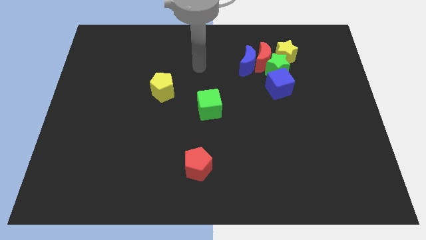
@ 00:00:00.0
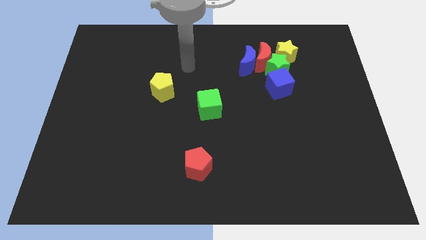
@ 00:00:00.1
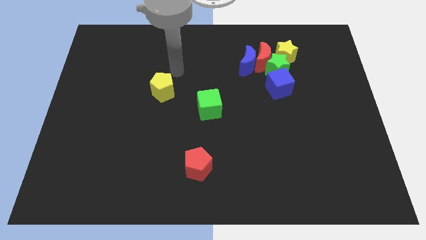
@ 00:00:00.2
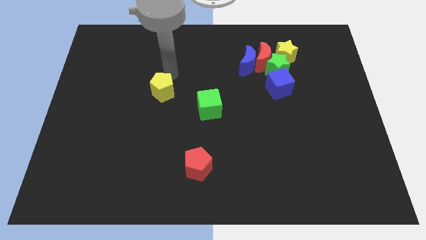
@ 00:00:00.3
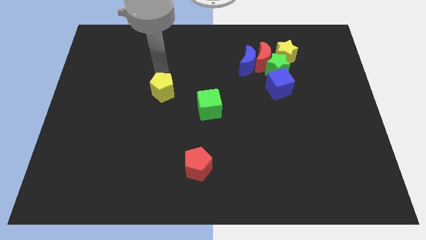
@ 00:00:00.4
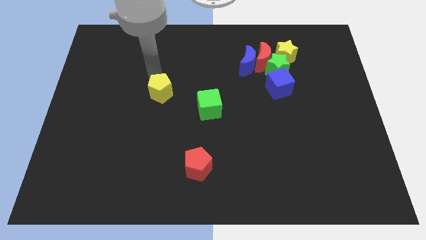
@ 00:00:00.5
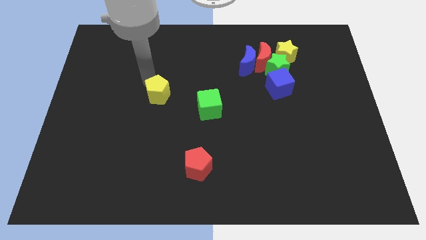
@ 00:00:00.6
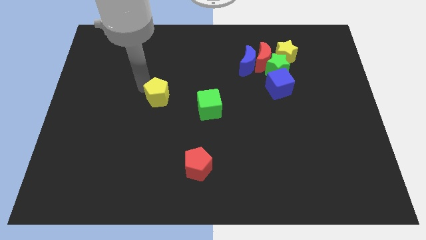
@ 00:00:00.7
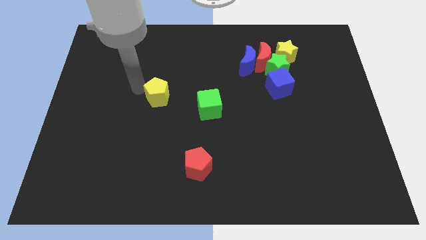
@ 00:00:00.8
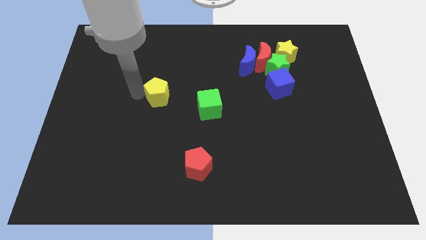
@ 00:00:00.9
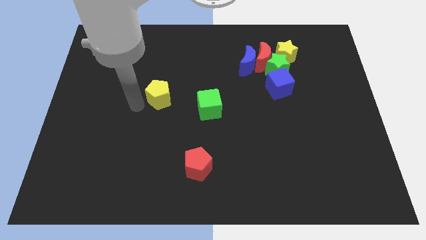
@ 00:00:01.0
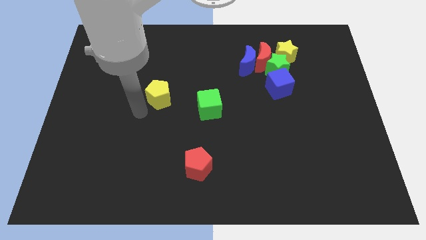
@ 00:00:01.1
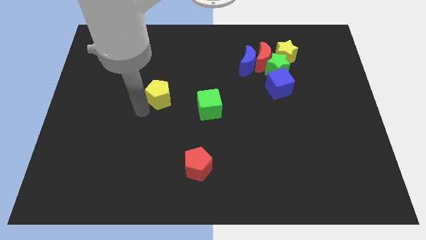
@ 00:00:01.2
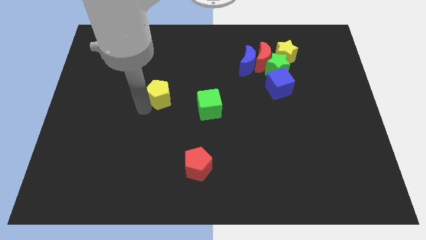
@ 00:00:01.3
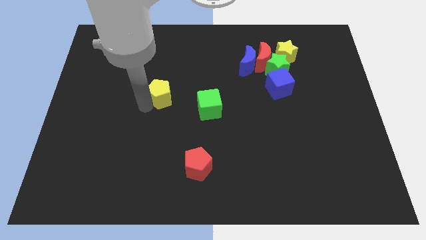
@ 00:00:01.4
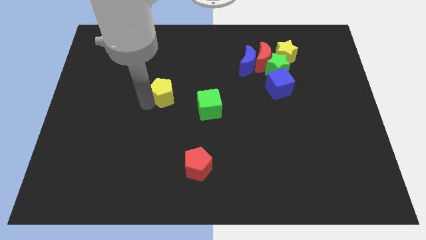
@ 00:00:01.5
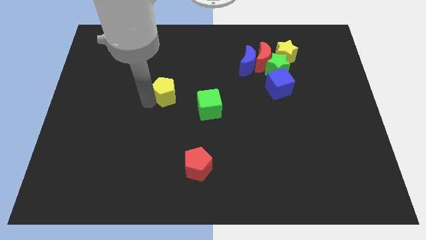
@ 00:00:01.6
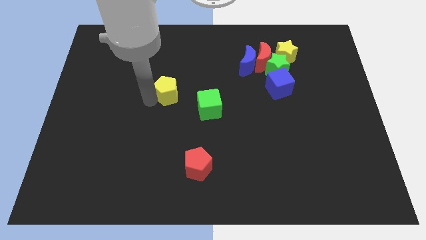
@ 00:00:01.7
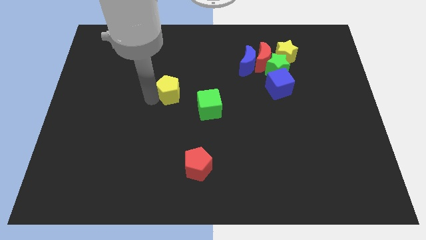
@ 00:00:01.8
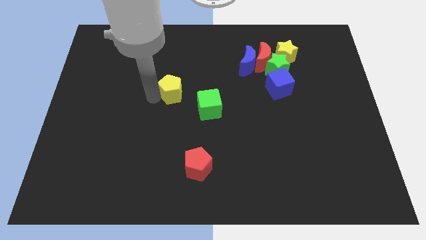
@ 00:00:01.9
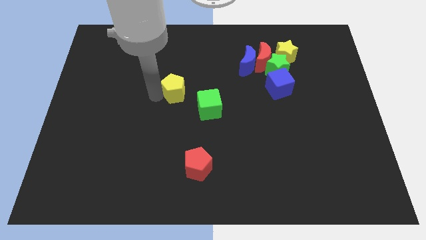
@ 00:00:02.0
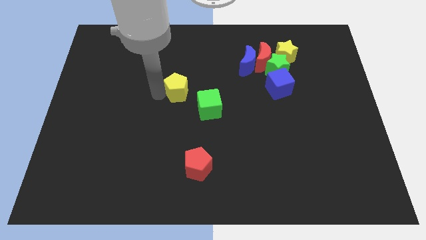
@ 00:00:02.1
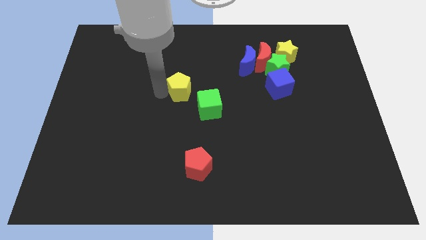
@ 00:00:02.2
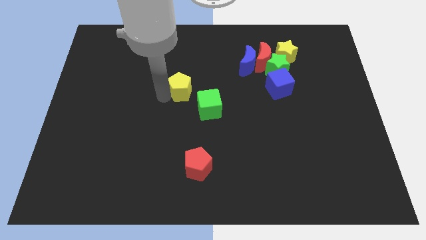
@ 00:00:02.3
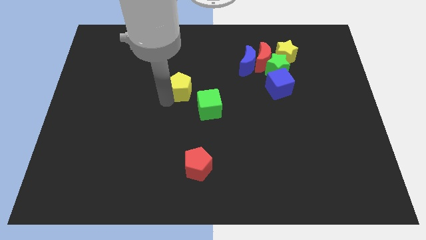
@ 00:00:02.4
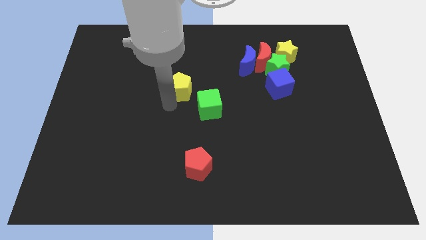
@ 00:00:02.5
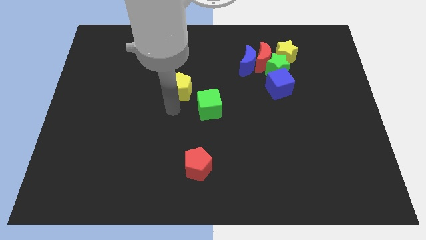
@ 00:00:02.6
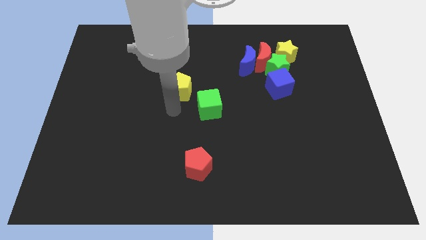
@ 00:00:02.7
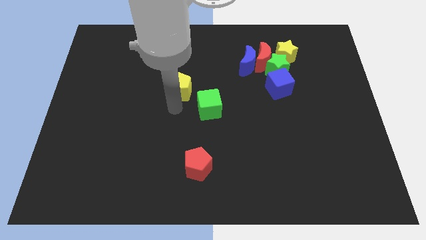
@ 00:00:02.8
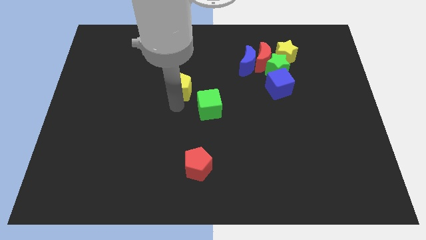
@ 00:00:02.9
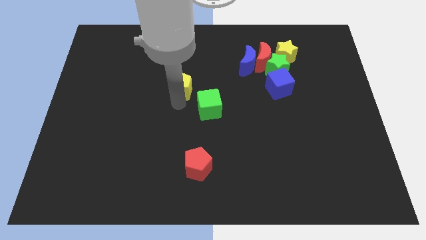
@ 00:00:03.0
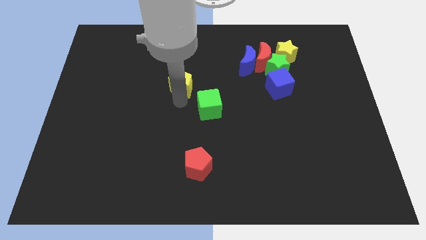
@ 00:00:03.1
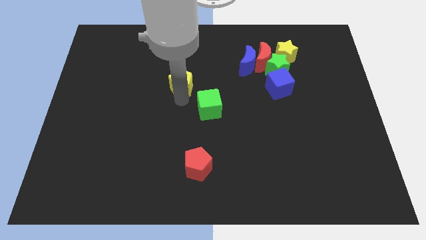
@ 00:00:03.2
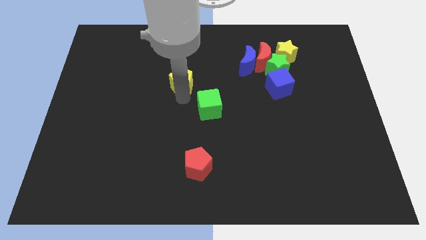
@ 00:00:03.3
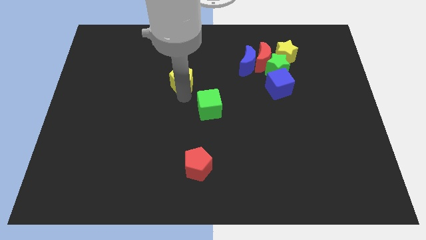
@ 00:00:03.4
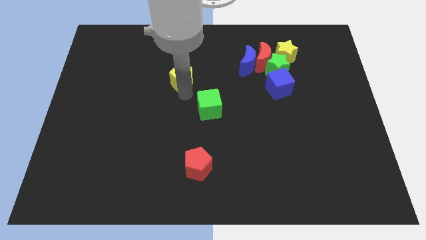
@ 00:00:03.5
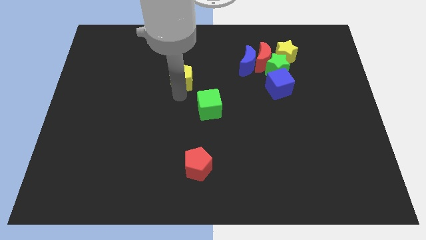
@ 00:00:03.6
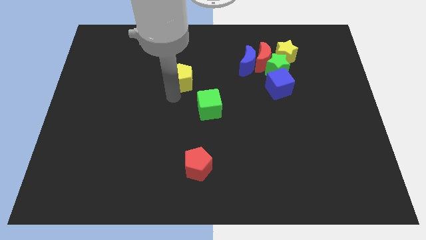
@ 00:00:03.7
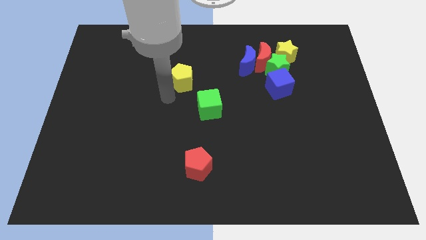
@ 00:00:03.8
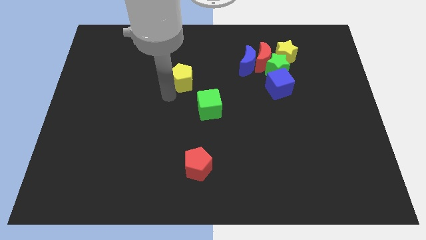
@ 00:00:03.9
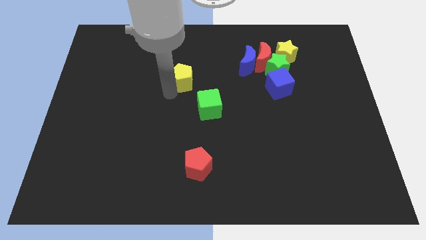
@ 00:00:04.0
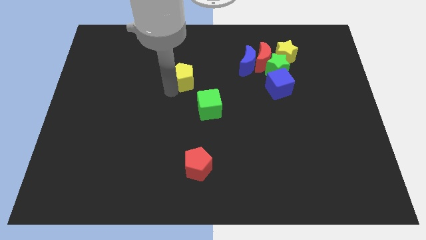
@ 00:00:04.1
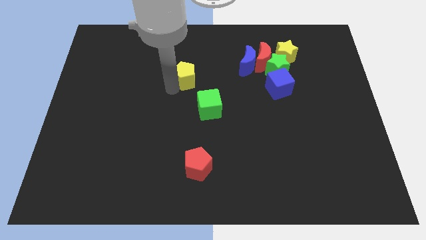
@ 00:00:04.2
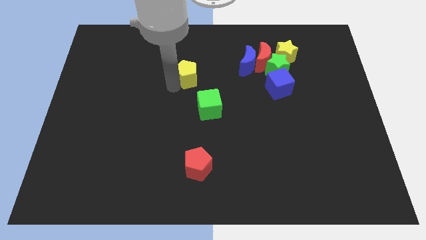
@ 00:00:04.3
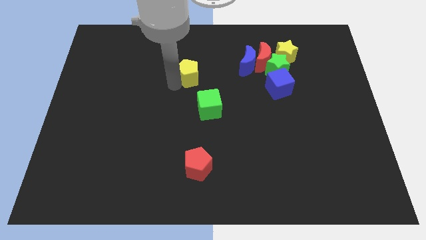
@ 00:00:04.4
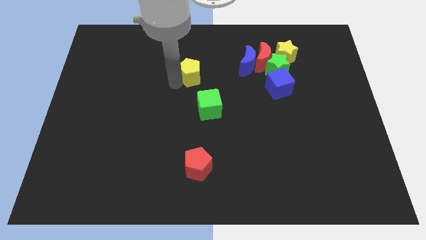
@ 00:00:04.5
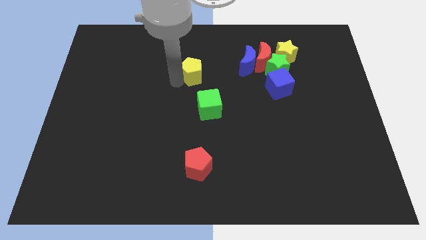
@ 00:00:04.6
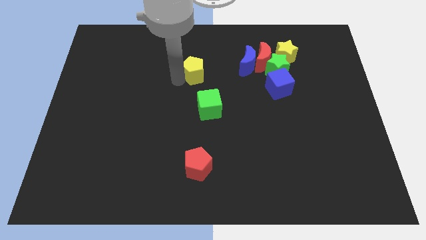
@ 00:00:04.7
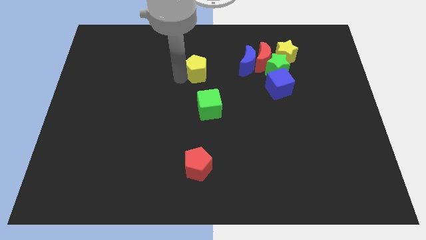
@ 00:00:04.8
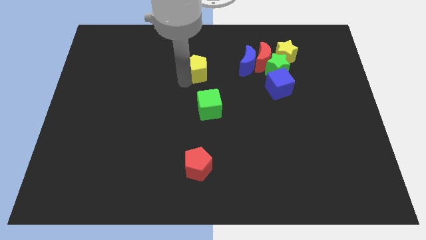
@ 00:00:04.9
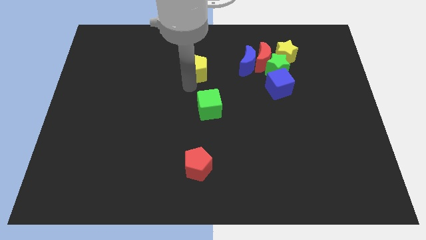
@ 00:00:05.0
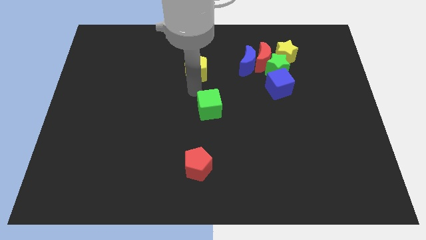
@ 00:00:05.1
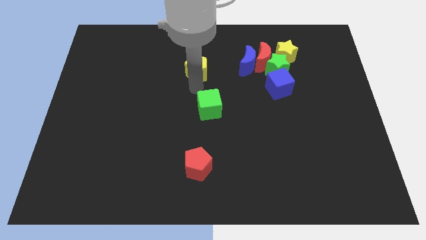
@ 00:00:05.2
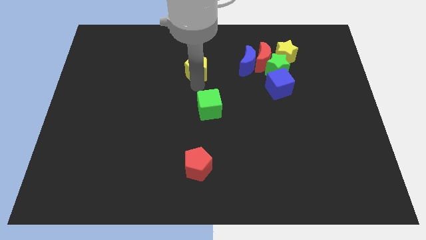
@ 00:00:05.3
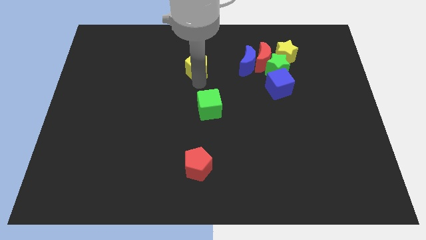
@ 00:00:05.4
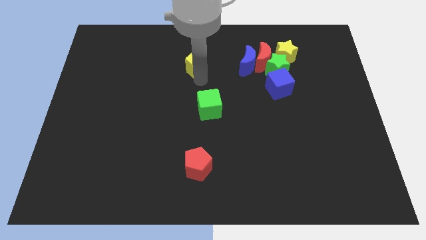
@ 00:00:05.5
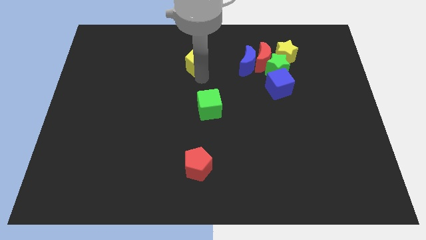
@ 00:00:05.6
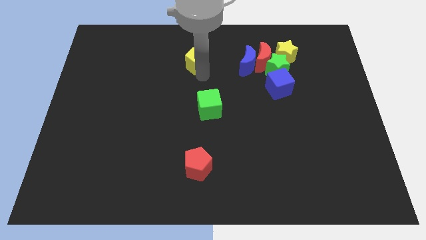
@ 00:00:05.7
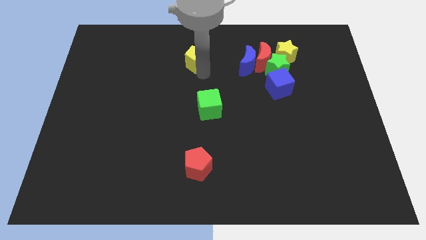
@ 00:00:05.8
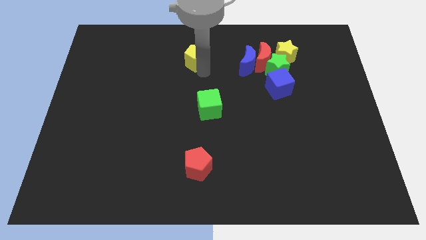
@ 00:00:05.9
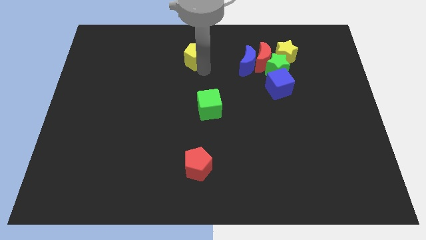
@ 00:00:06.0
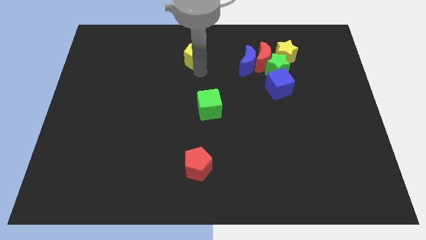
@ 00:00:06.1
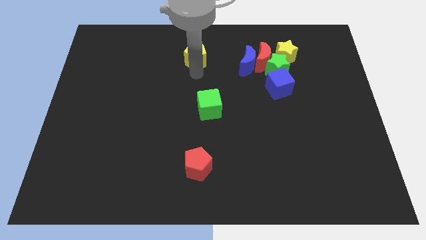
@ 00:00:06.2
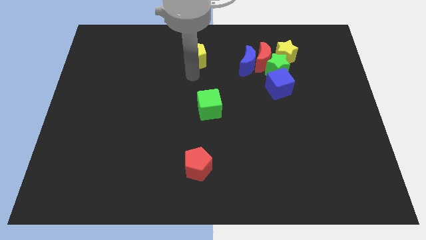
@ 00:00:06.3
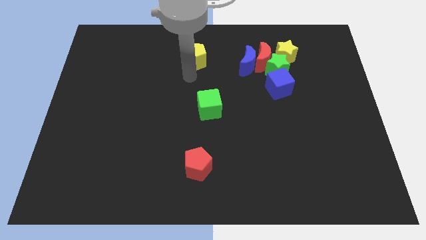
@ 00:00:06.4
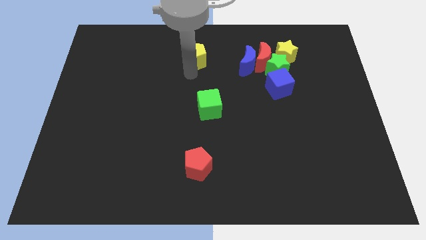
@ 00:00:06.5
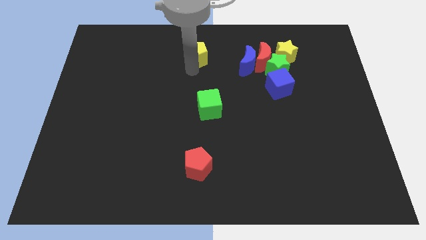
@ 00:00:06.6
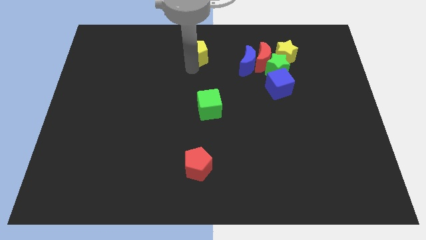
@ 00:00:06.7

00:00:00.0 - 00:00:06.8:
slide the yellow pentagon to the towards your base

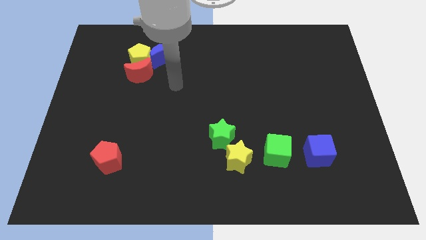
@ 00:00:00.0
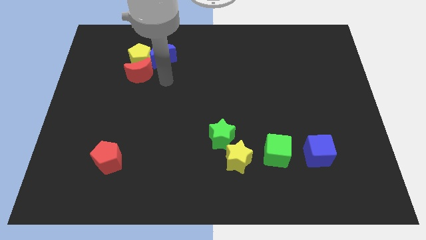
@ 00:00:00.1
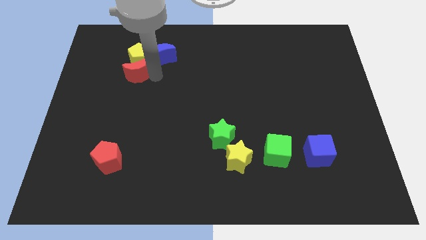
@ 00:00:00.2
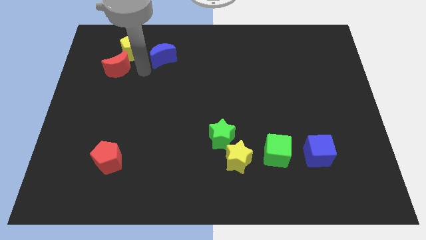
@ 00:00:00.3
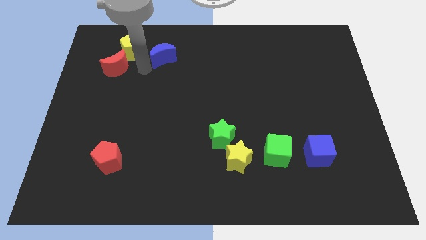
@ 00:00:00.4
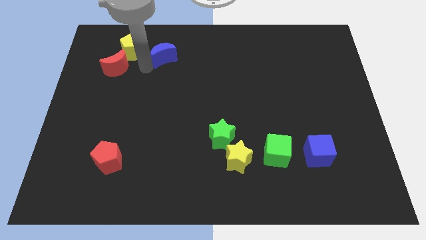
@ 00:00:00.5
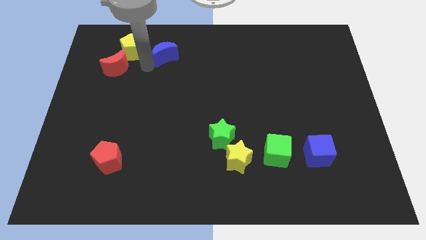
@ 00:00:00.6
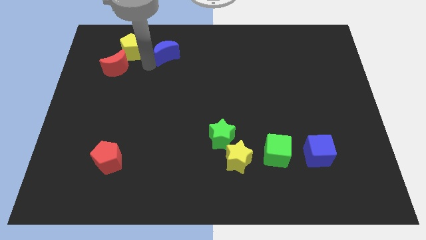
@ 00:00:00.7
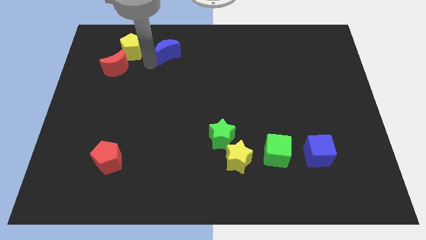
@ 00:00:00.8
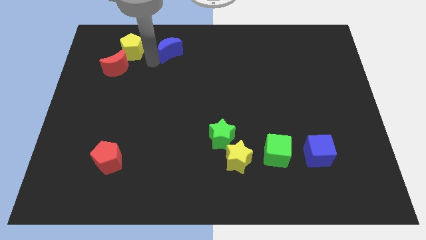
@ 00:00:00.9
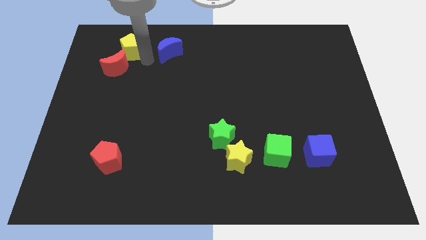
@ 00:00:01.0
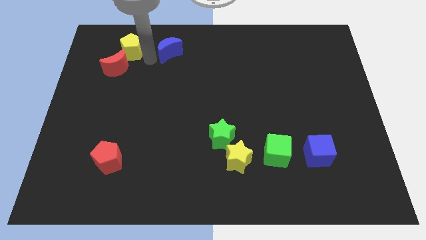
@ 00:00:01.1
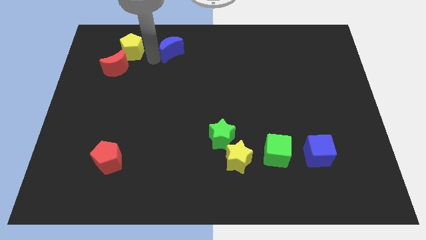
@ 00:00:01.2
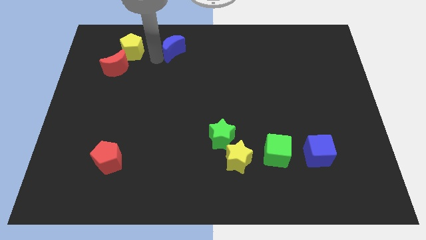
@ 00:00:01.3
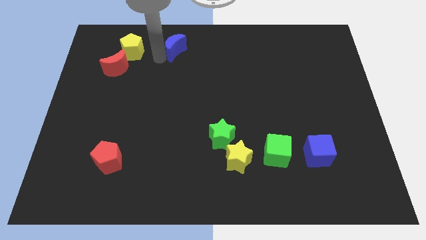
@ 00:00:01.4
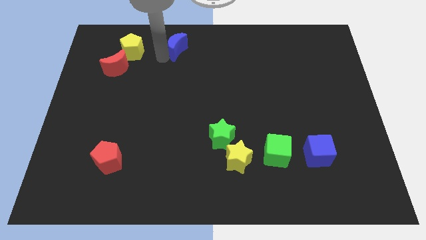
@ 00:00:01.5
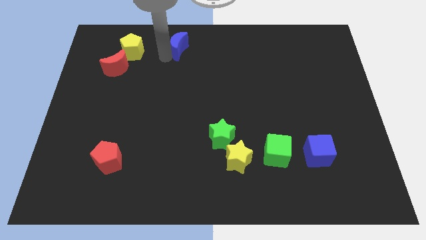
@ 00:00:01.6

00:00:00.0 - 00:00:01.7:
move the blue moon to the top
